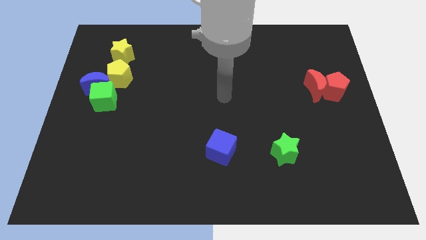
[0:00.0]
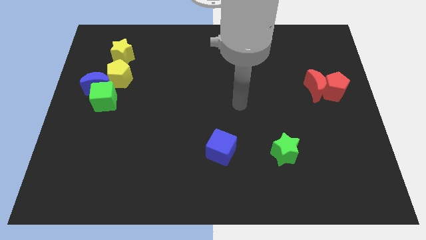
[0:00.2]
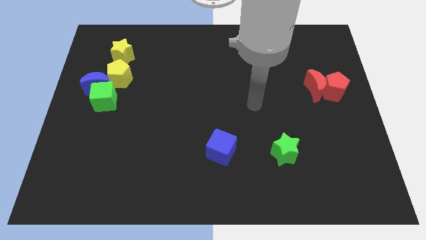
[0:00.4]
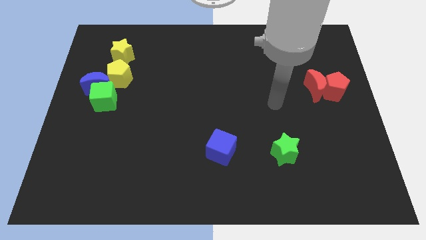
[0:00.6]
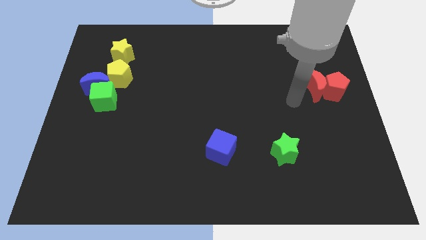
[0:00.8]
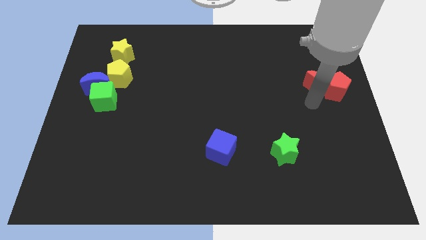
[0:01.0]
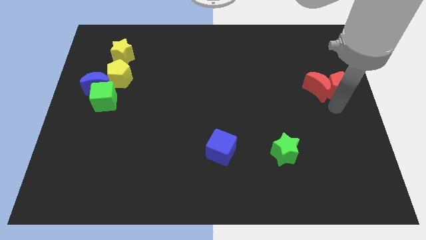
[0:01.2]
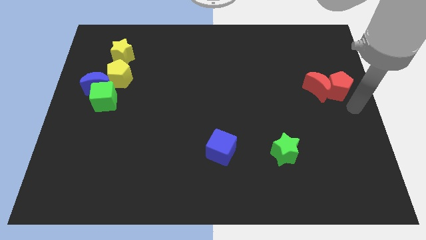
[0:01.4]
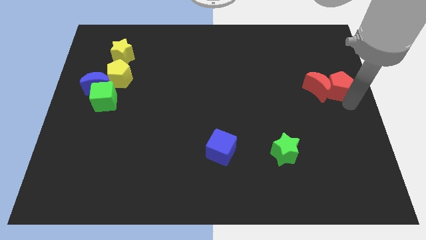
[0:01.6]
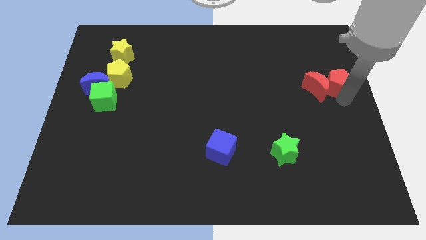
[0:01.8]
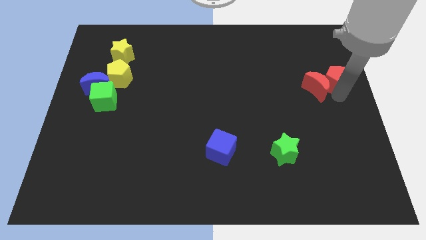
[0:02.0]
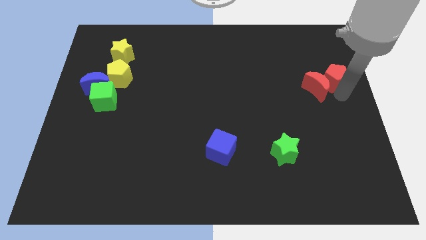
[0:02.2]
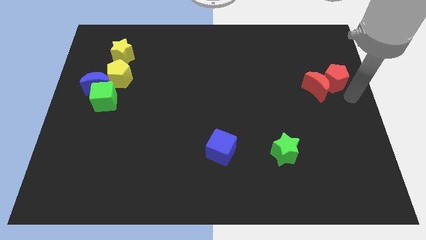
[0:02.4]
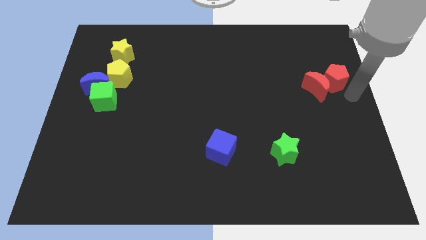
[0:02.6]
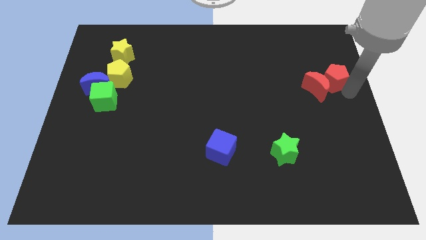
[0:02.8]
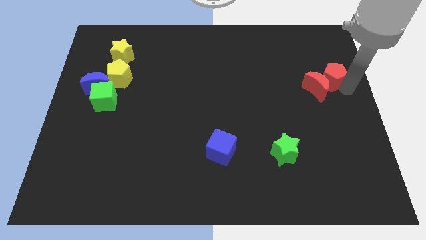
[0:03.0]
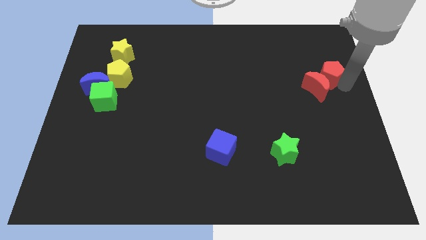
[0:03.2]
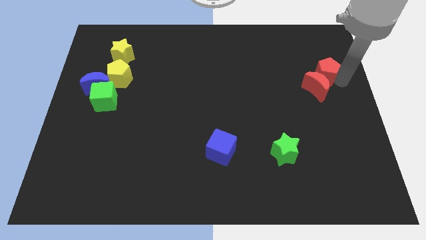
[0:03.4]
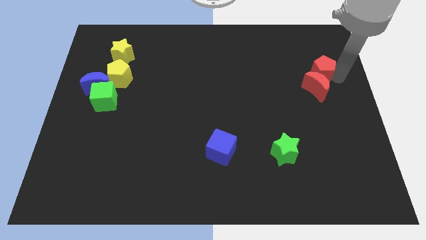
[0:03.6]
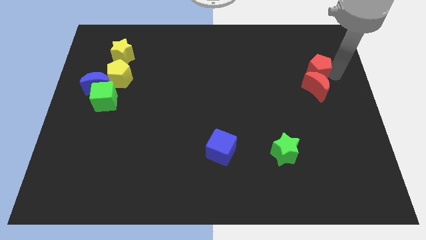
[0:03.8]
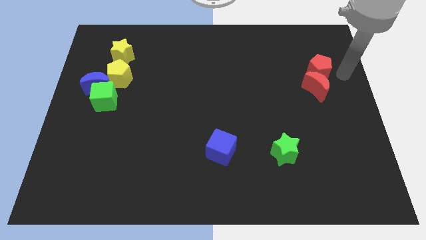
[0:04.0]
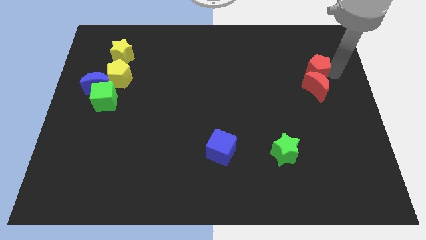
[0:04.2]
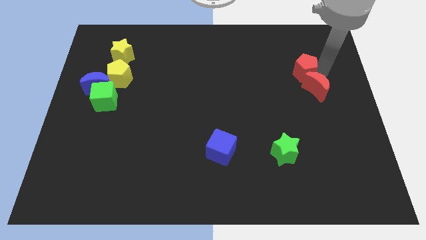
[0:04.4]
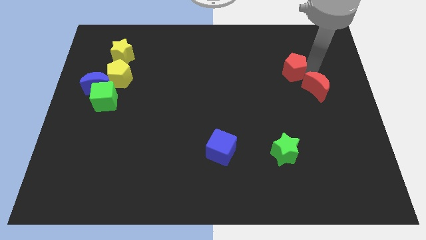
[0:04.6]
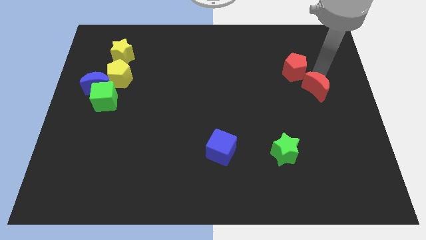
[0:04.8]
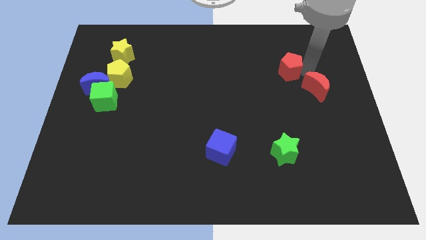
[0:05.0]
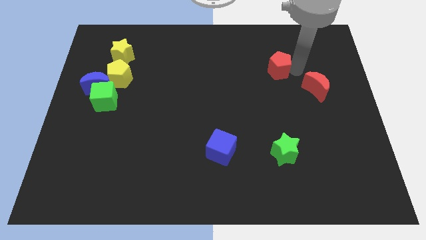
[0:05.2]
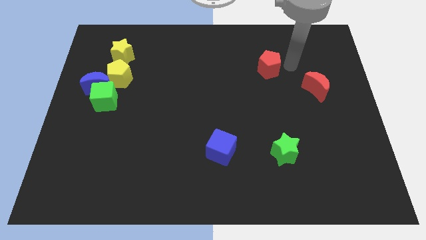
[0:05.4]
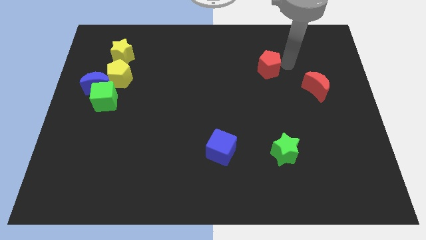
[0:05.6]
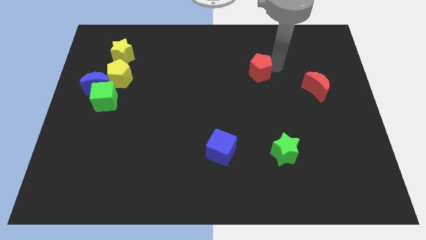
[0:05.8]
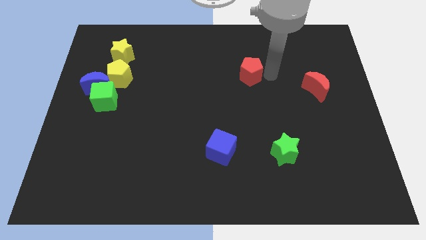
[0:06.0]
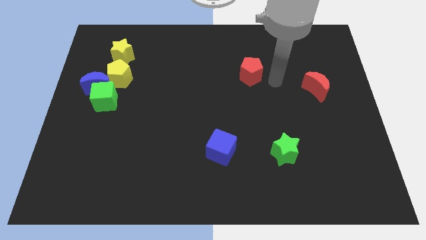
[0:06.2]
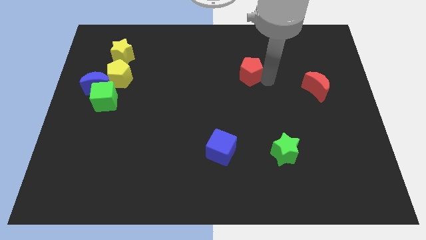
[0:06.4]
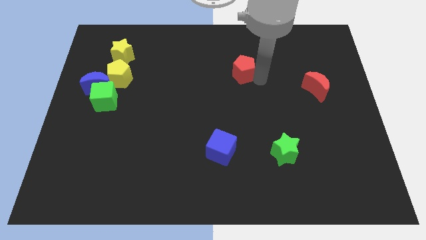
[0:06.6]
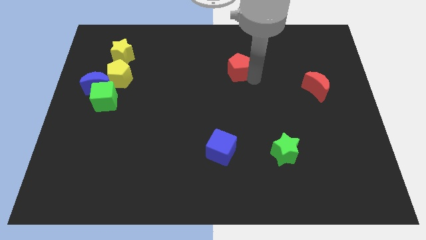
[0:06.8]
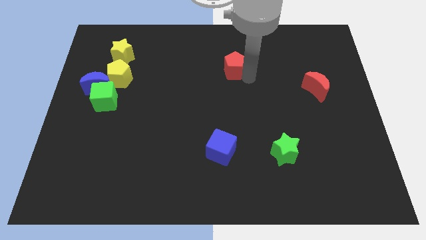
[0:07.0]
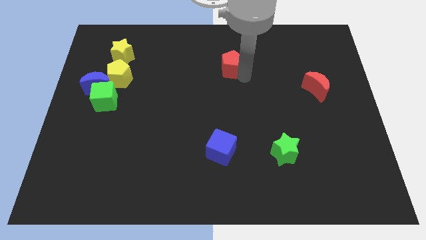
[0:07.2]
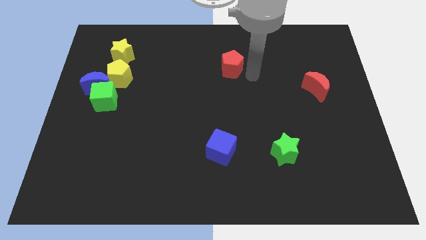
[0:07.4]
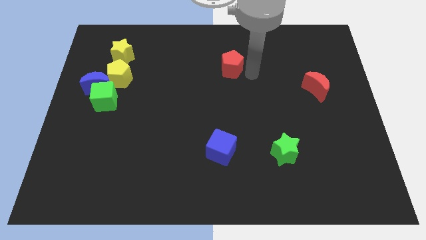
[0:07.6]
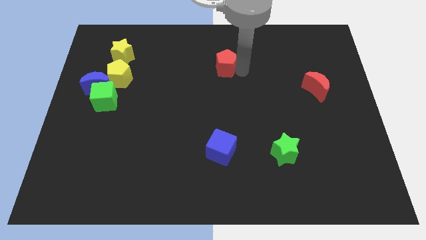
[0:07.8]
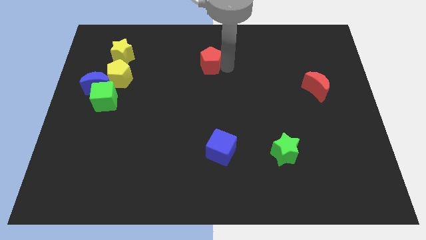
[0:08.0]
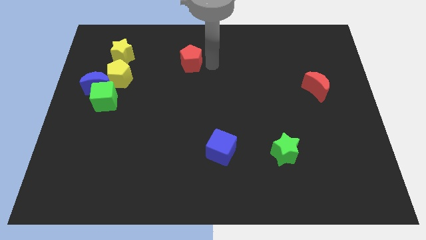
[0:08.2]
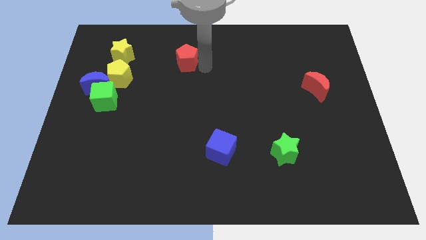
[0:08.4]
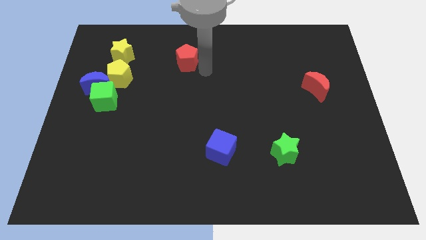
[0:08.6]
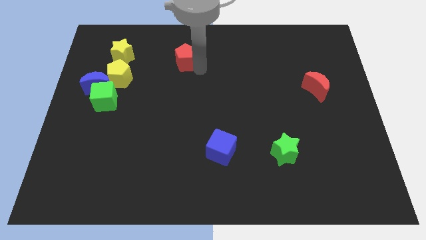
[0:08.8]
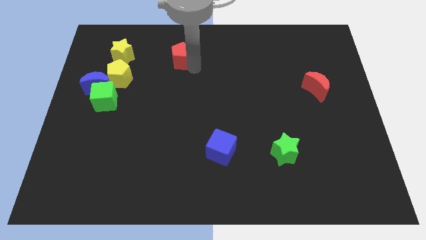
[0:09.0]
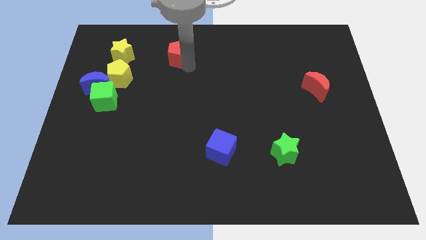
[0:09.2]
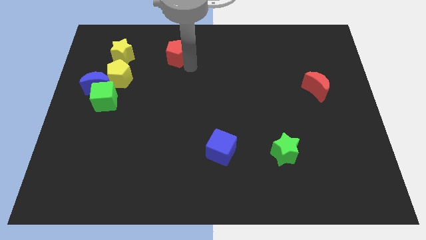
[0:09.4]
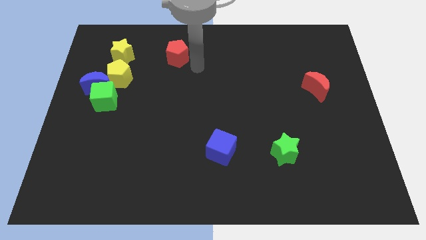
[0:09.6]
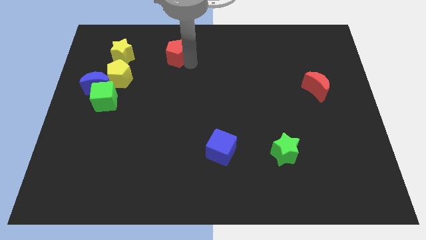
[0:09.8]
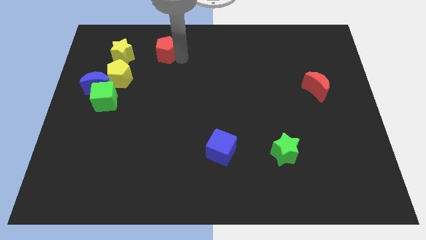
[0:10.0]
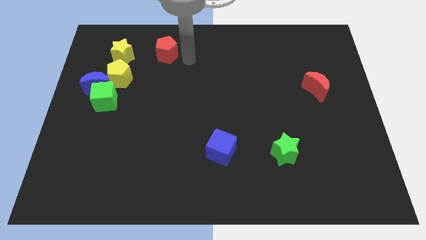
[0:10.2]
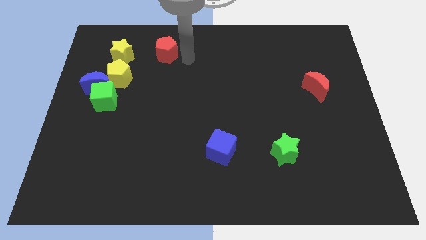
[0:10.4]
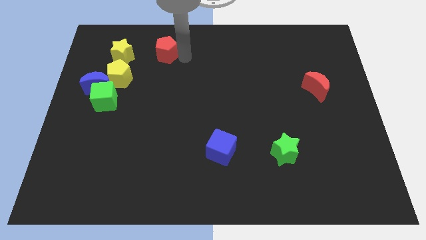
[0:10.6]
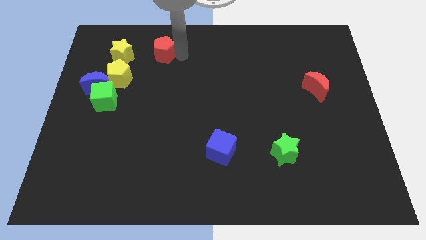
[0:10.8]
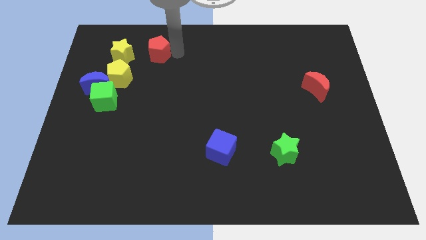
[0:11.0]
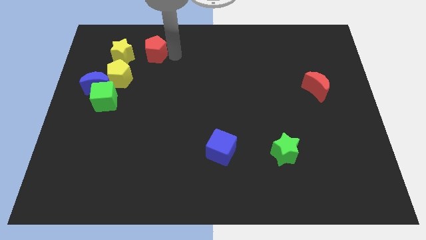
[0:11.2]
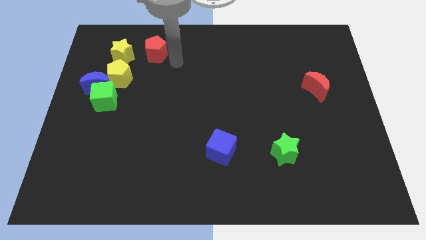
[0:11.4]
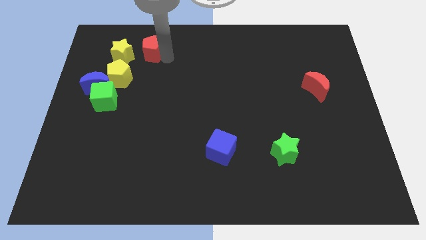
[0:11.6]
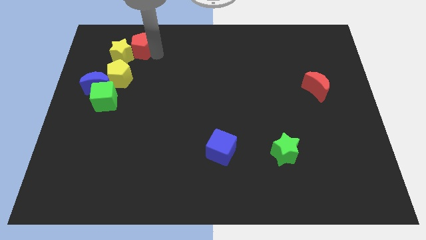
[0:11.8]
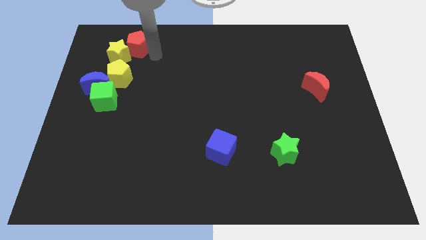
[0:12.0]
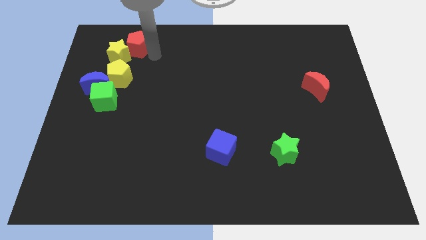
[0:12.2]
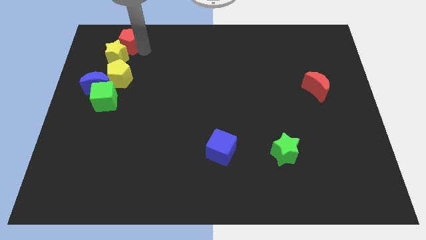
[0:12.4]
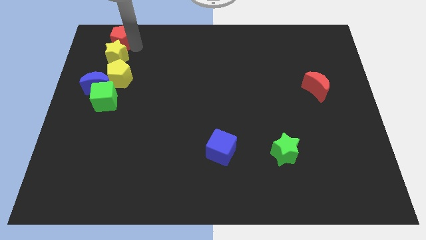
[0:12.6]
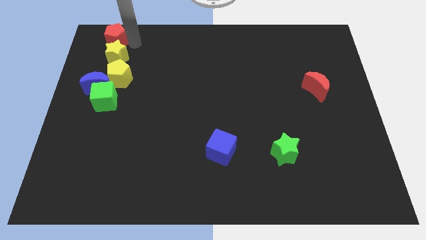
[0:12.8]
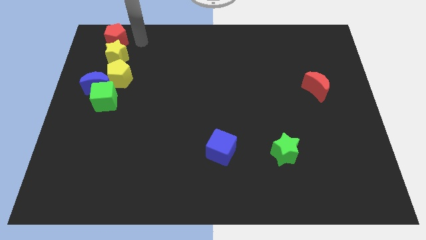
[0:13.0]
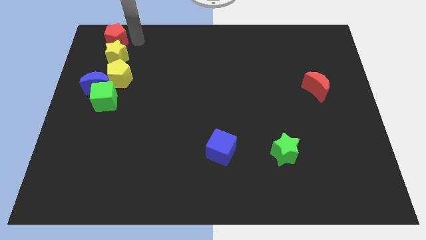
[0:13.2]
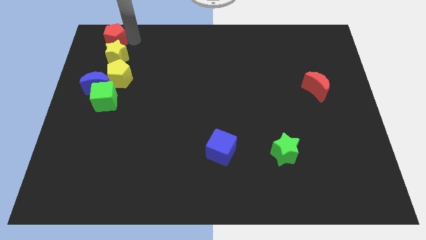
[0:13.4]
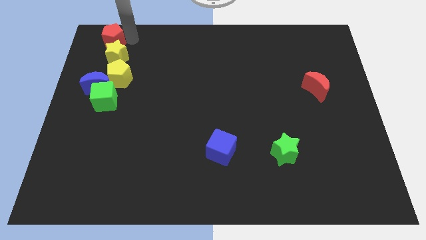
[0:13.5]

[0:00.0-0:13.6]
slide the red pentagon to the top left corner
